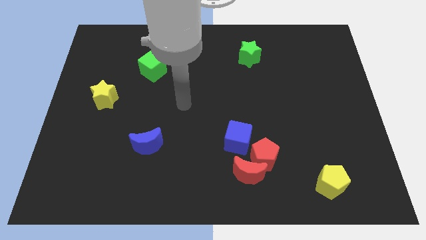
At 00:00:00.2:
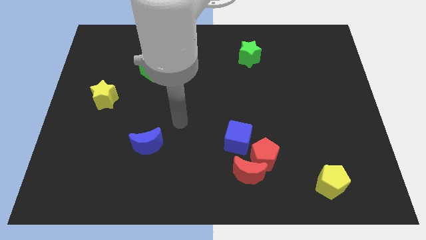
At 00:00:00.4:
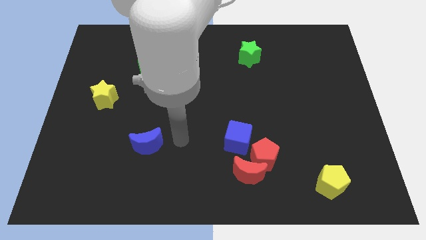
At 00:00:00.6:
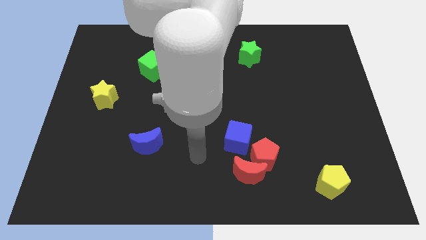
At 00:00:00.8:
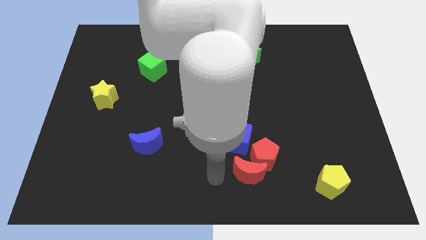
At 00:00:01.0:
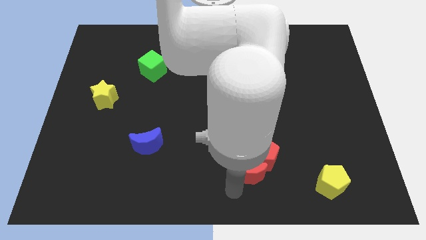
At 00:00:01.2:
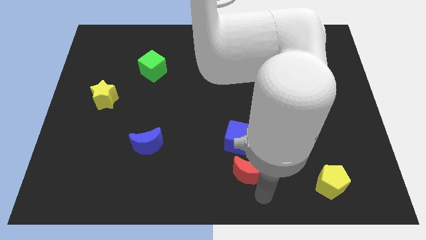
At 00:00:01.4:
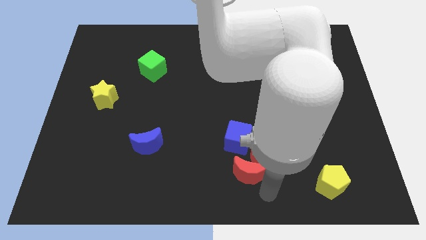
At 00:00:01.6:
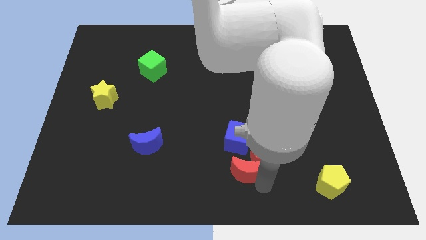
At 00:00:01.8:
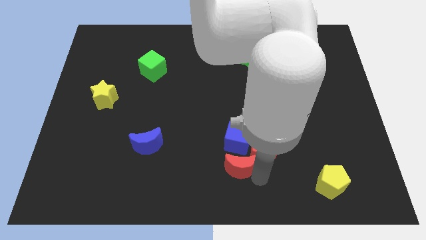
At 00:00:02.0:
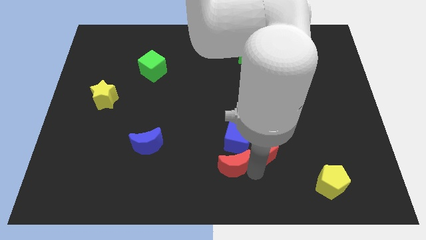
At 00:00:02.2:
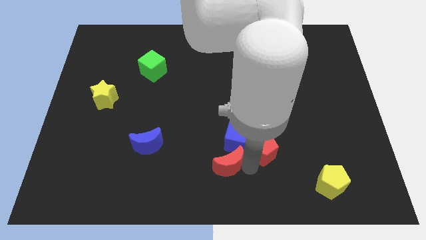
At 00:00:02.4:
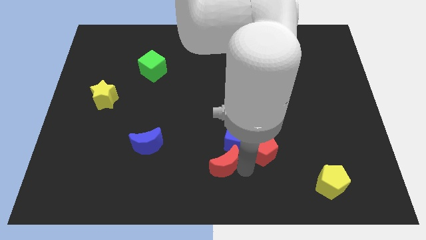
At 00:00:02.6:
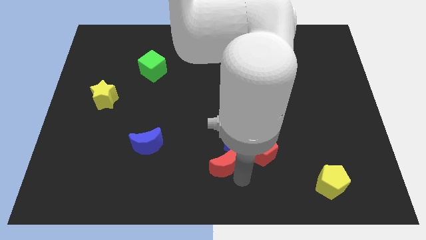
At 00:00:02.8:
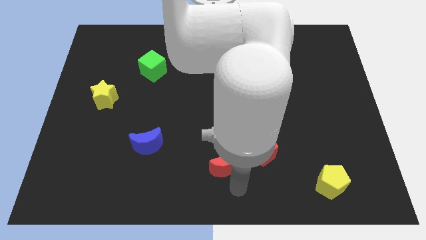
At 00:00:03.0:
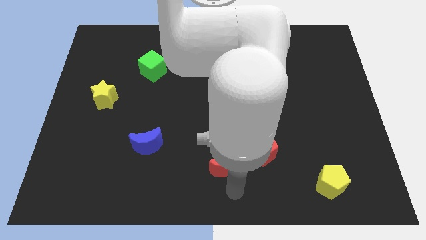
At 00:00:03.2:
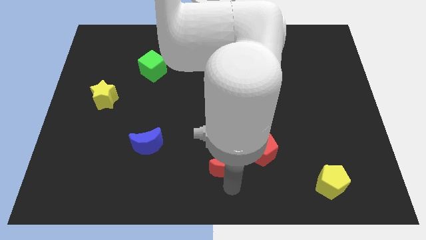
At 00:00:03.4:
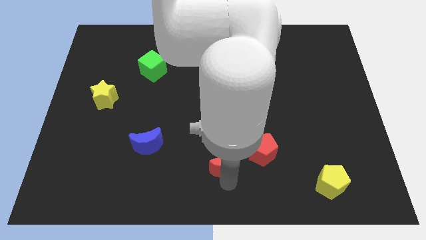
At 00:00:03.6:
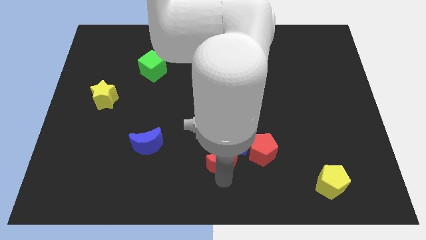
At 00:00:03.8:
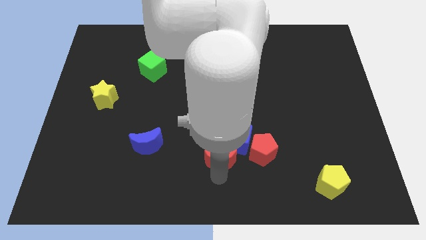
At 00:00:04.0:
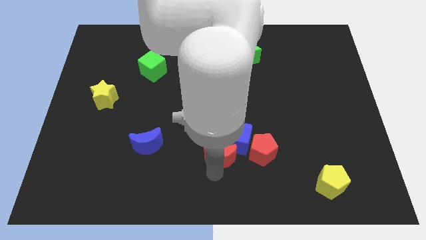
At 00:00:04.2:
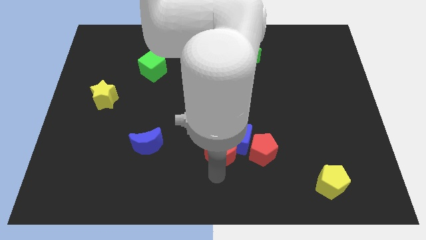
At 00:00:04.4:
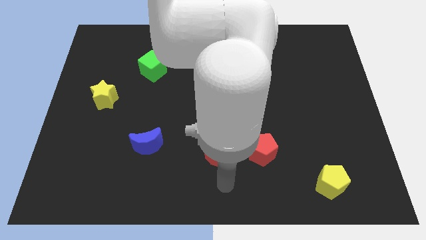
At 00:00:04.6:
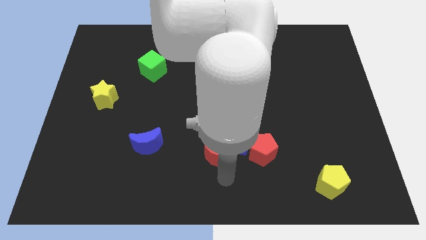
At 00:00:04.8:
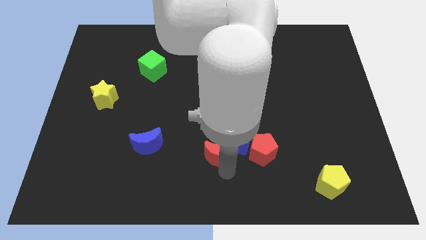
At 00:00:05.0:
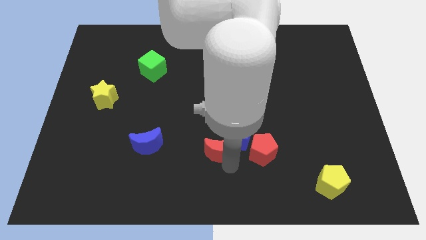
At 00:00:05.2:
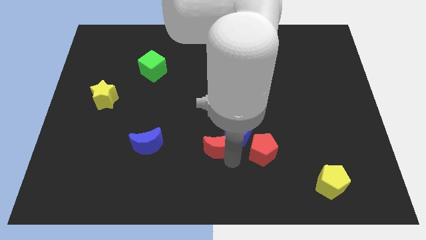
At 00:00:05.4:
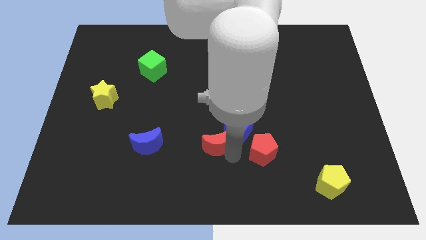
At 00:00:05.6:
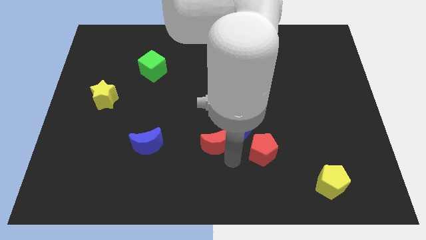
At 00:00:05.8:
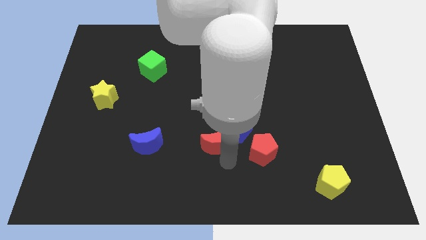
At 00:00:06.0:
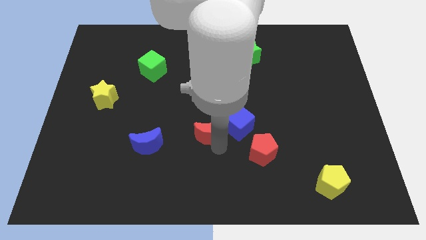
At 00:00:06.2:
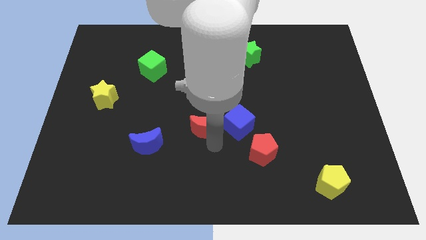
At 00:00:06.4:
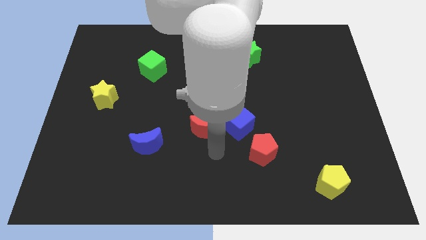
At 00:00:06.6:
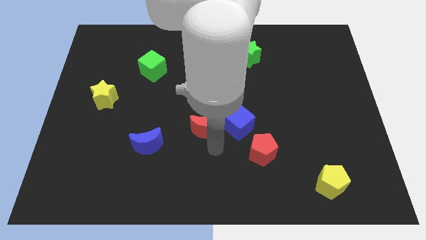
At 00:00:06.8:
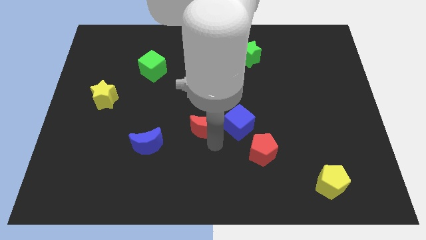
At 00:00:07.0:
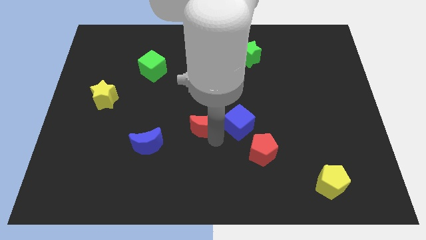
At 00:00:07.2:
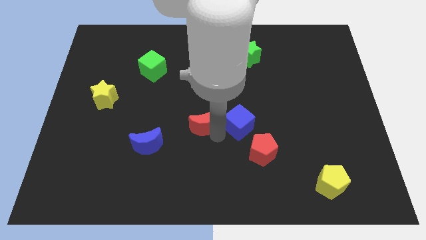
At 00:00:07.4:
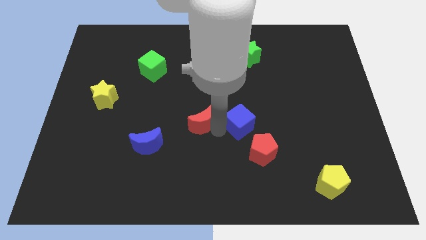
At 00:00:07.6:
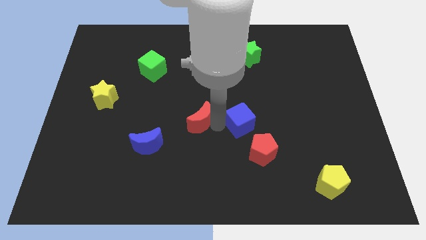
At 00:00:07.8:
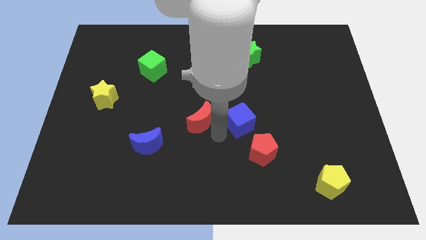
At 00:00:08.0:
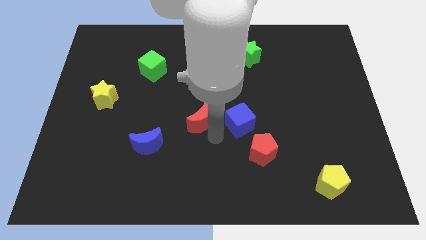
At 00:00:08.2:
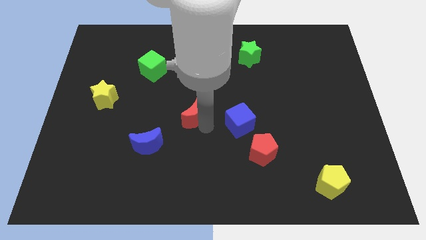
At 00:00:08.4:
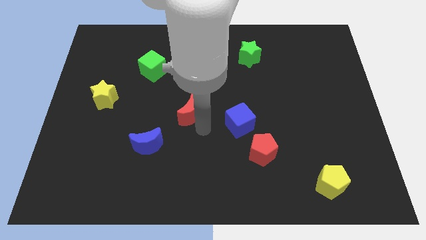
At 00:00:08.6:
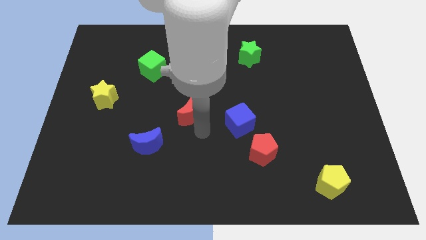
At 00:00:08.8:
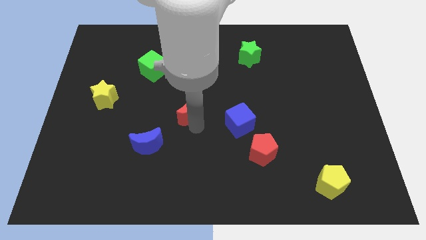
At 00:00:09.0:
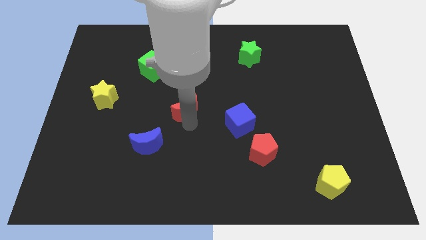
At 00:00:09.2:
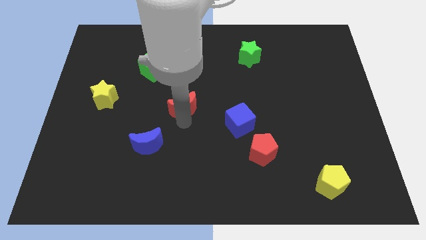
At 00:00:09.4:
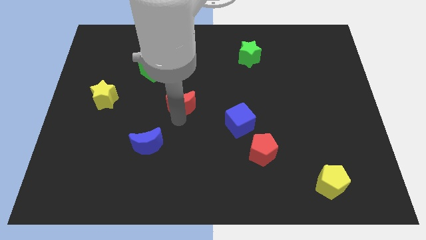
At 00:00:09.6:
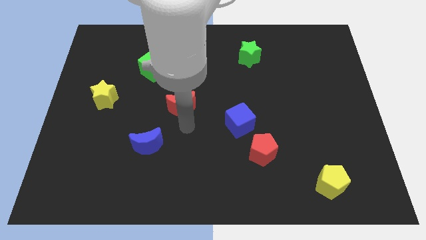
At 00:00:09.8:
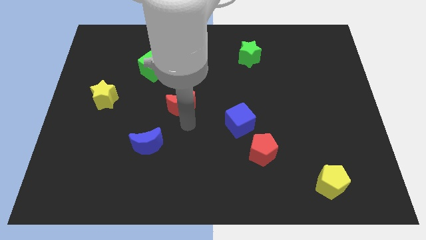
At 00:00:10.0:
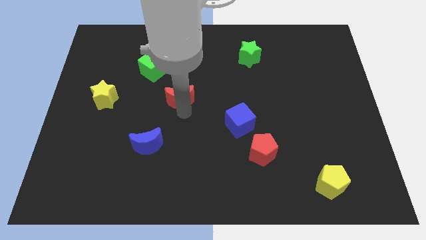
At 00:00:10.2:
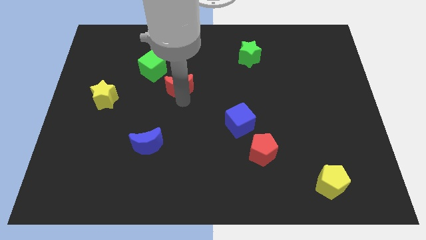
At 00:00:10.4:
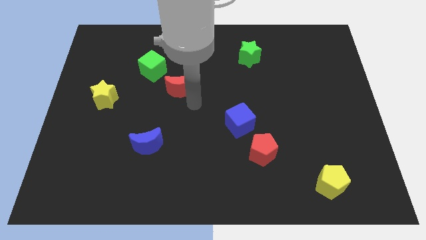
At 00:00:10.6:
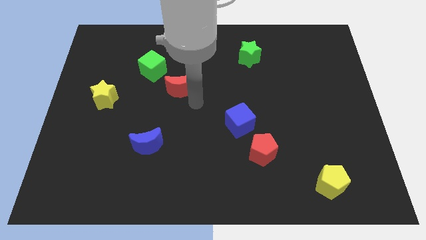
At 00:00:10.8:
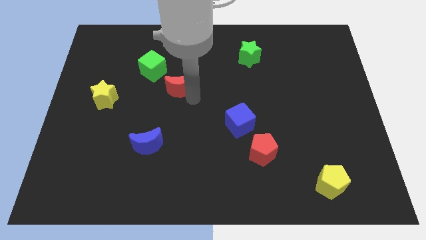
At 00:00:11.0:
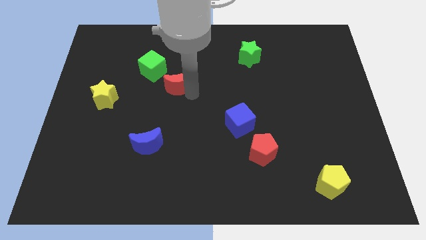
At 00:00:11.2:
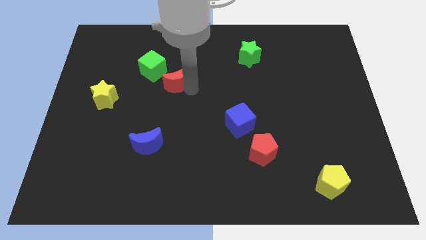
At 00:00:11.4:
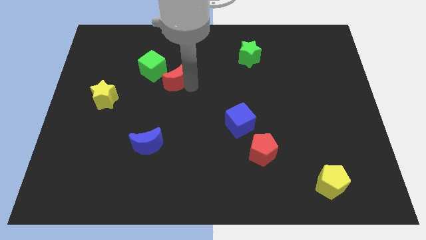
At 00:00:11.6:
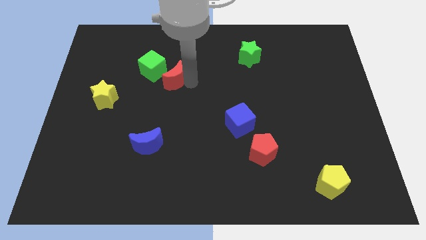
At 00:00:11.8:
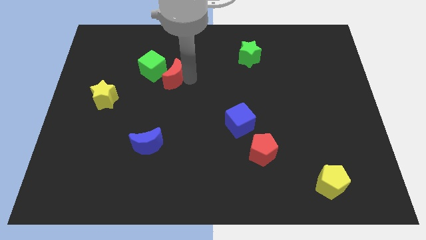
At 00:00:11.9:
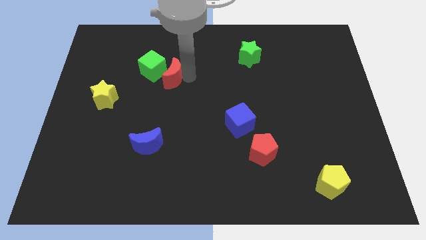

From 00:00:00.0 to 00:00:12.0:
push the red moon next to the green cube

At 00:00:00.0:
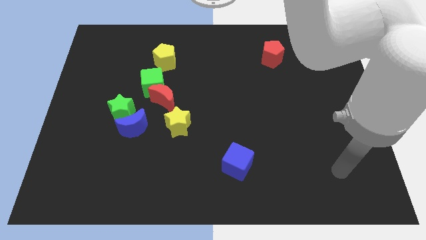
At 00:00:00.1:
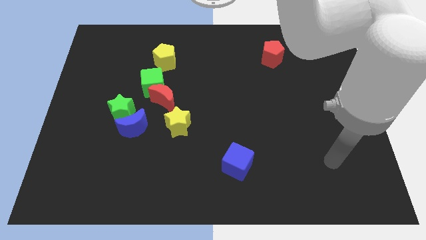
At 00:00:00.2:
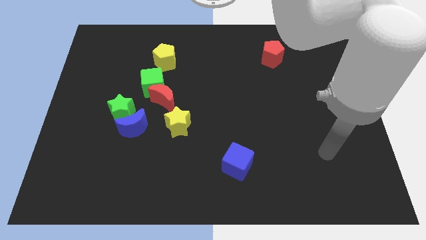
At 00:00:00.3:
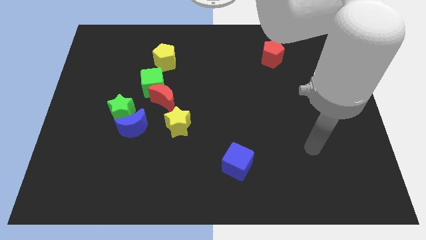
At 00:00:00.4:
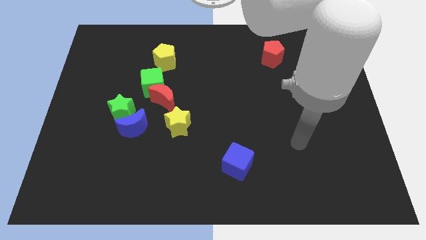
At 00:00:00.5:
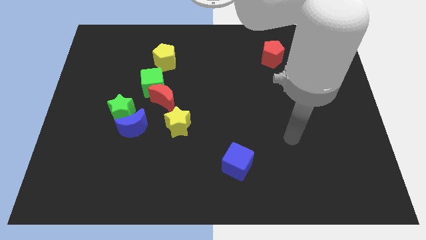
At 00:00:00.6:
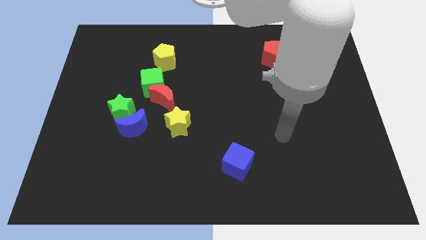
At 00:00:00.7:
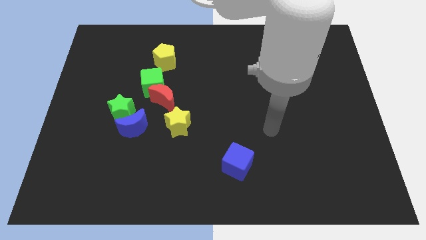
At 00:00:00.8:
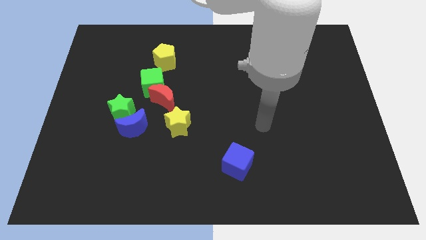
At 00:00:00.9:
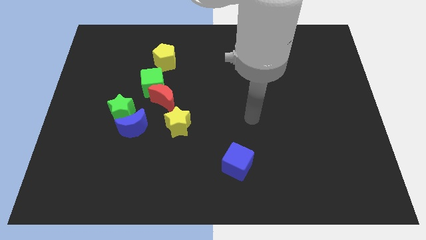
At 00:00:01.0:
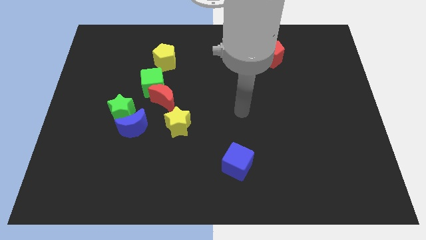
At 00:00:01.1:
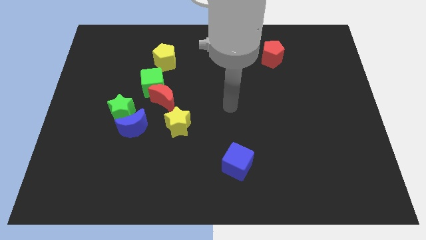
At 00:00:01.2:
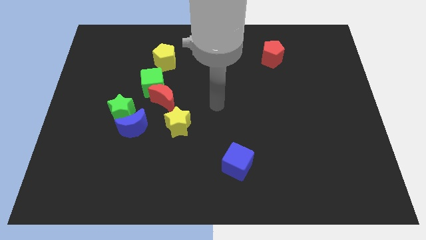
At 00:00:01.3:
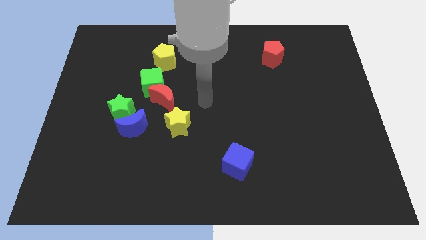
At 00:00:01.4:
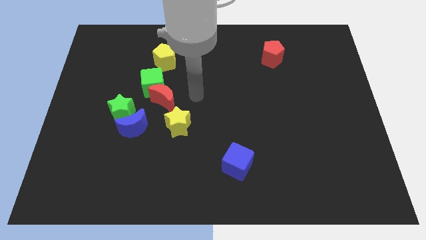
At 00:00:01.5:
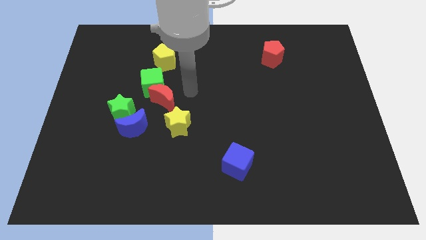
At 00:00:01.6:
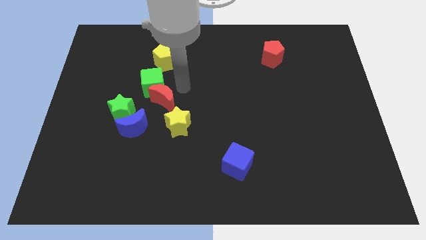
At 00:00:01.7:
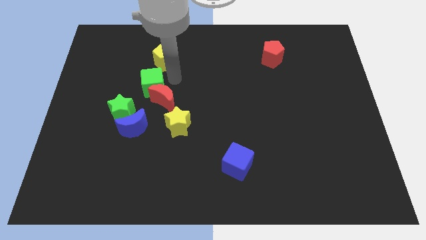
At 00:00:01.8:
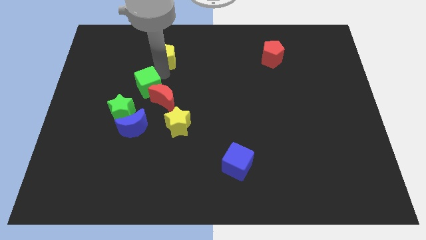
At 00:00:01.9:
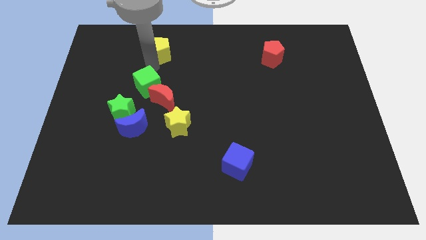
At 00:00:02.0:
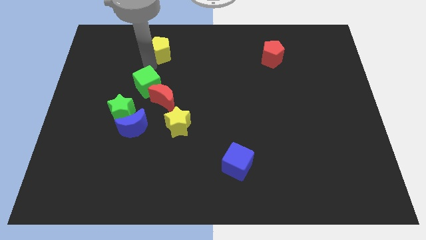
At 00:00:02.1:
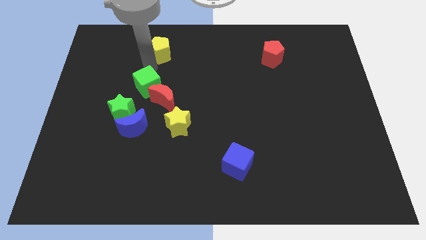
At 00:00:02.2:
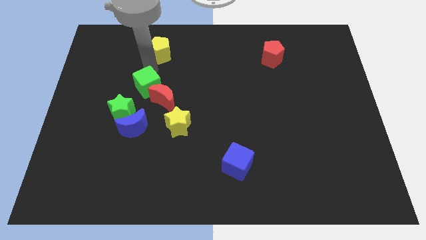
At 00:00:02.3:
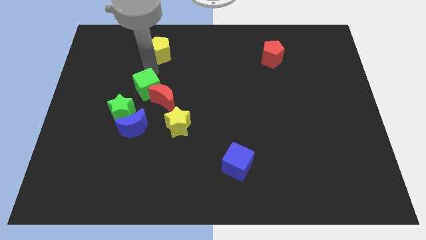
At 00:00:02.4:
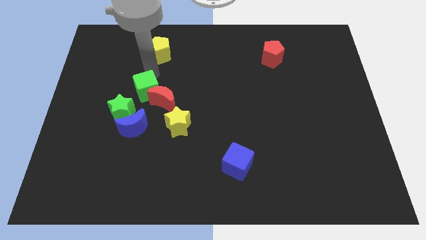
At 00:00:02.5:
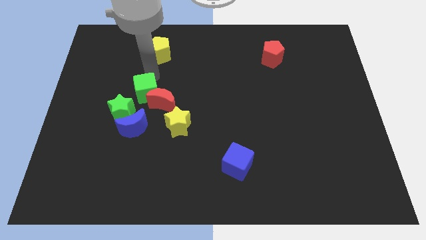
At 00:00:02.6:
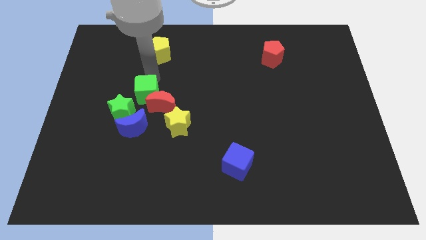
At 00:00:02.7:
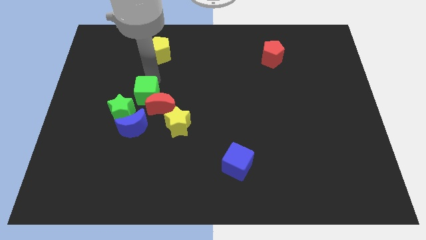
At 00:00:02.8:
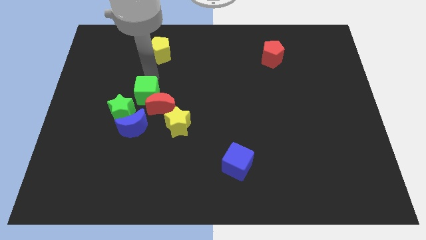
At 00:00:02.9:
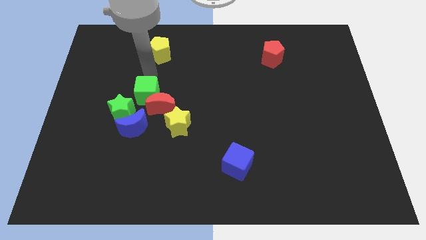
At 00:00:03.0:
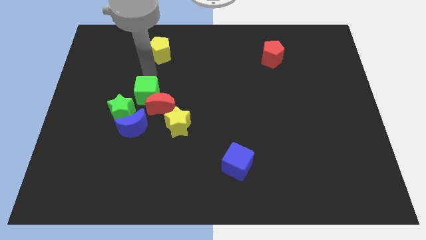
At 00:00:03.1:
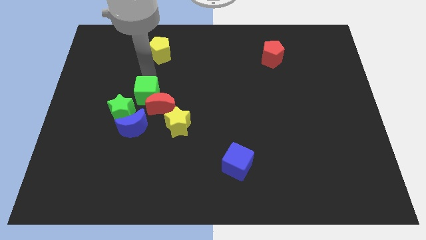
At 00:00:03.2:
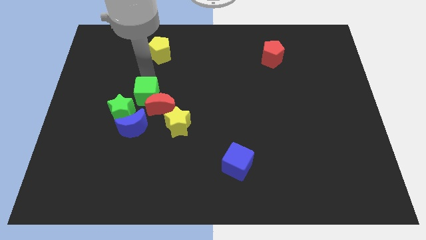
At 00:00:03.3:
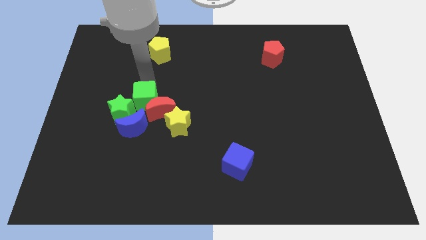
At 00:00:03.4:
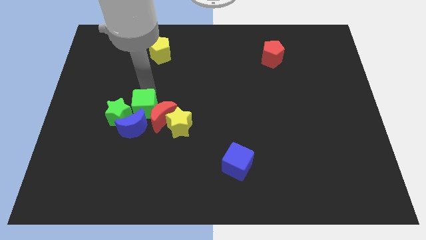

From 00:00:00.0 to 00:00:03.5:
move the green cube close to the blue moon
